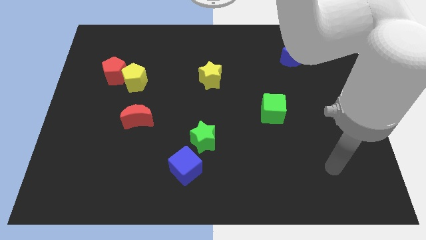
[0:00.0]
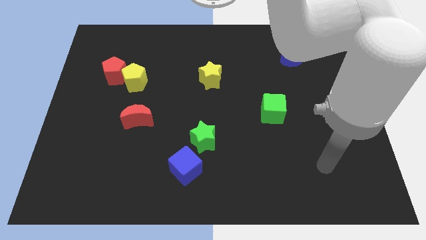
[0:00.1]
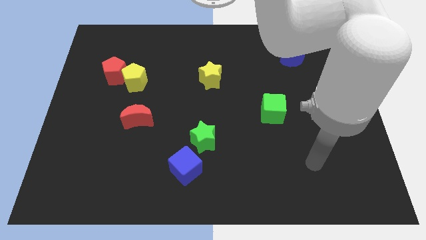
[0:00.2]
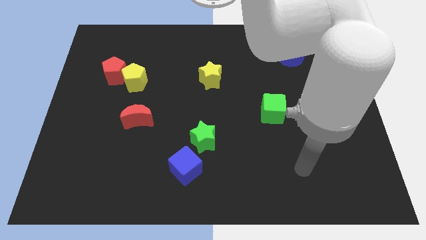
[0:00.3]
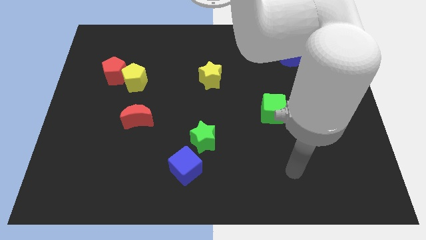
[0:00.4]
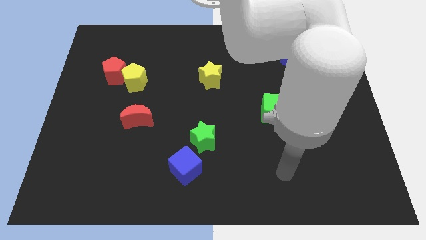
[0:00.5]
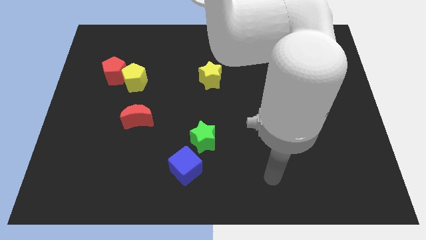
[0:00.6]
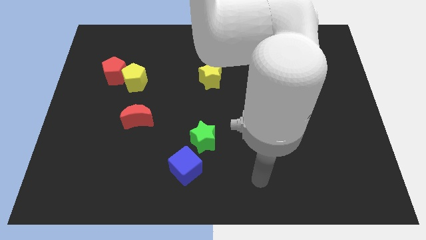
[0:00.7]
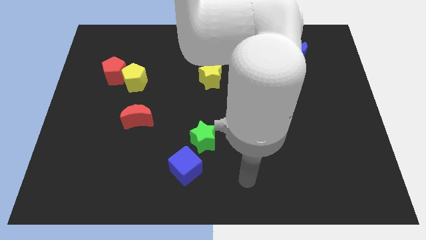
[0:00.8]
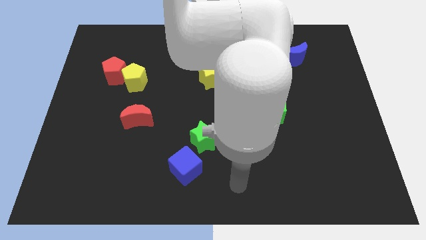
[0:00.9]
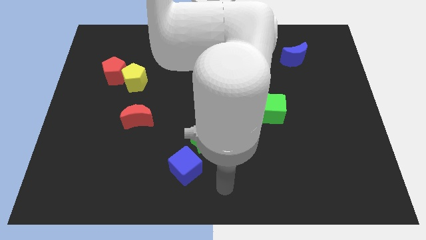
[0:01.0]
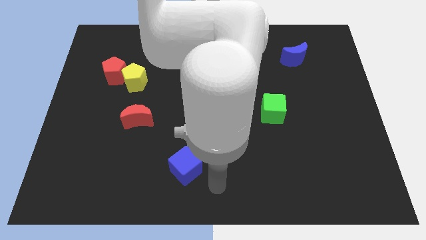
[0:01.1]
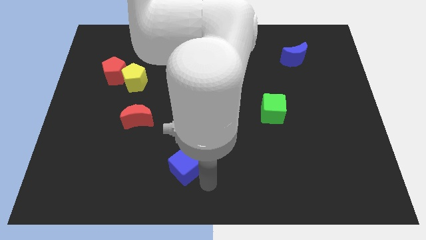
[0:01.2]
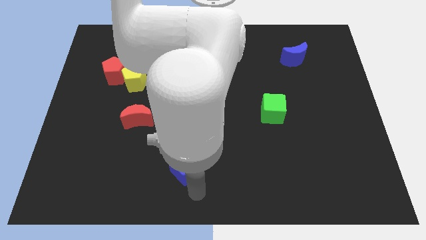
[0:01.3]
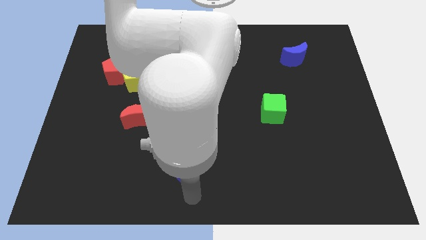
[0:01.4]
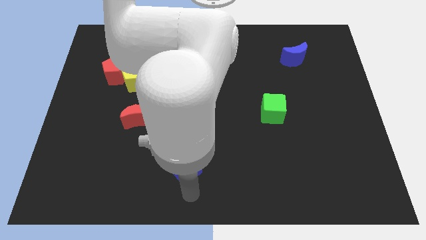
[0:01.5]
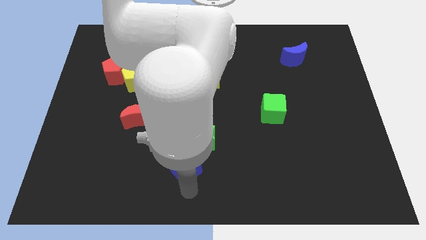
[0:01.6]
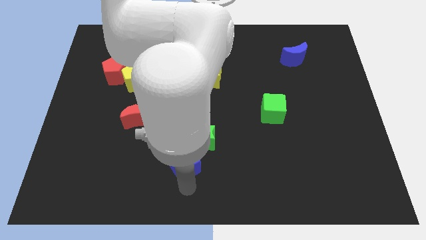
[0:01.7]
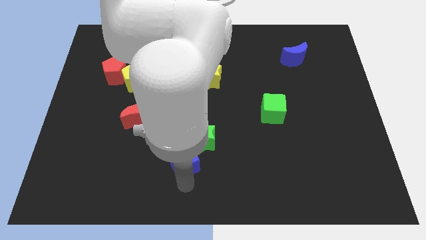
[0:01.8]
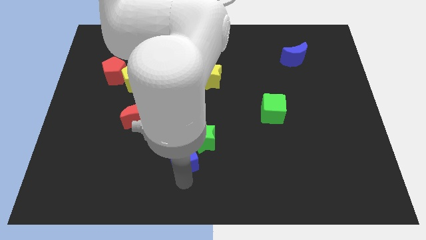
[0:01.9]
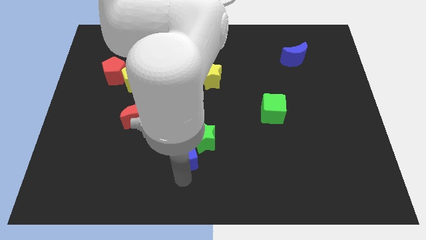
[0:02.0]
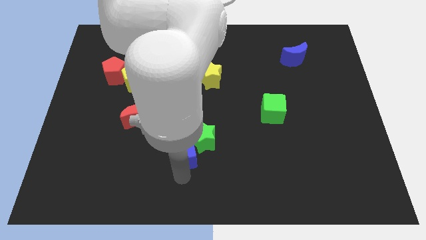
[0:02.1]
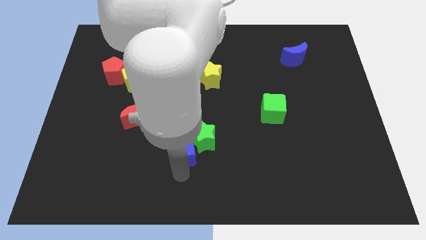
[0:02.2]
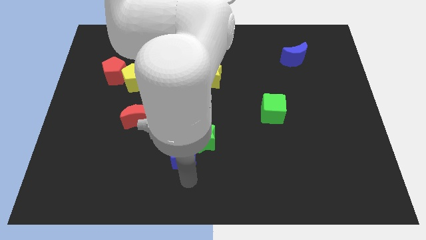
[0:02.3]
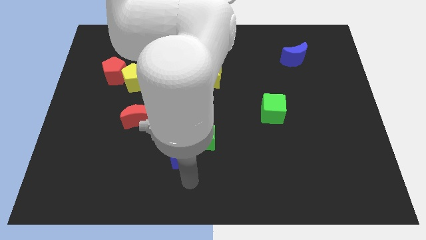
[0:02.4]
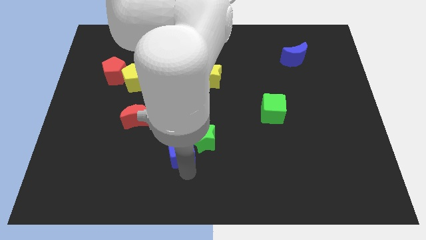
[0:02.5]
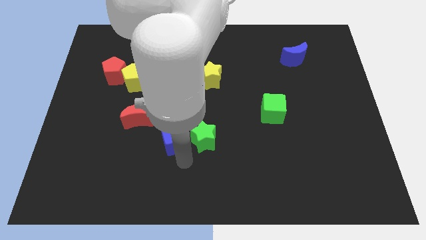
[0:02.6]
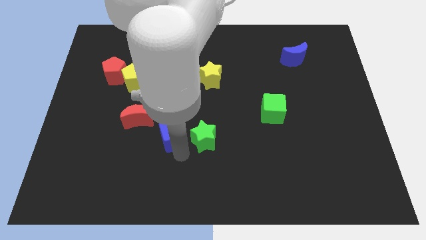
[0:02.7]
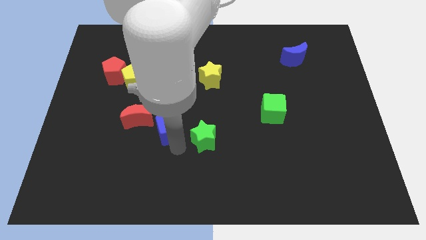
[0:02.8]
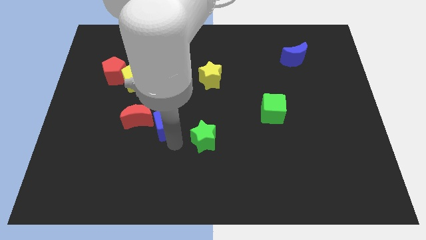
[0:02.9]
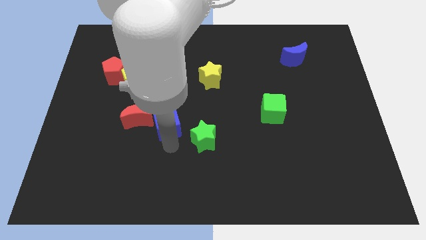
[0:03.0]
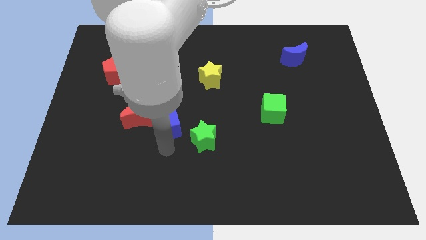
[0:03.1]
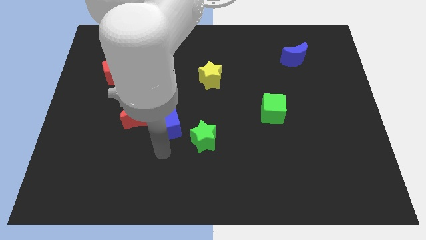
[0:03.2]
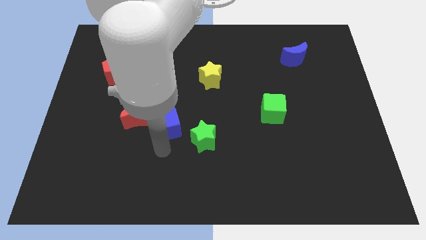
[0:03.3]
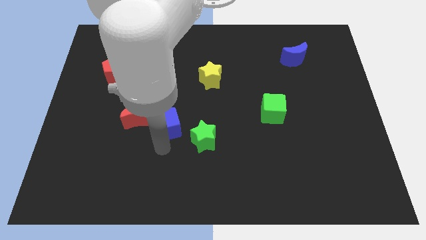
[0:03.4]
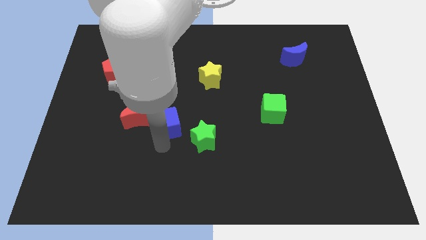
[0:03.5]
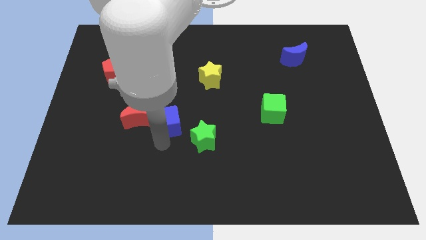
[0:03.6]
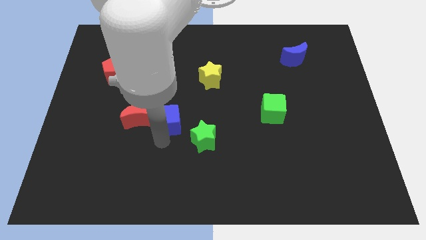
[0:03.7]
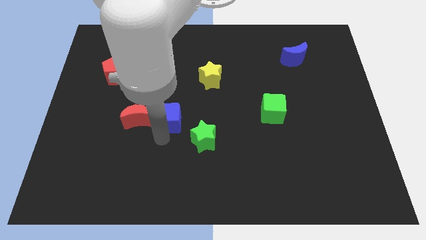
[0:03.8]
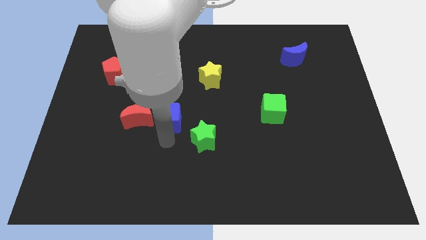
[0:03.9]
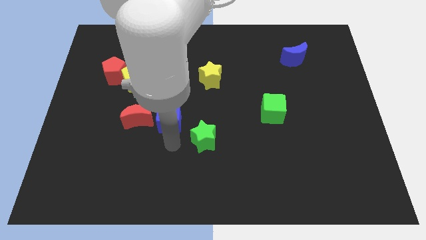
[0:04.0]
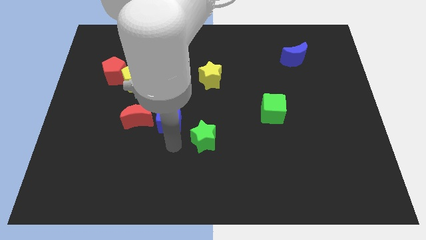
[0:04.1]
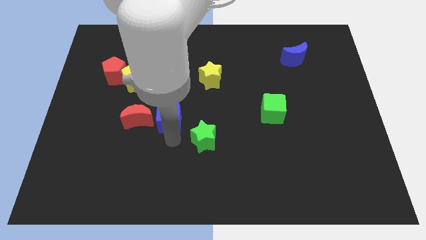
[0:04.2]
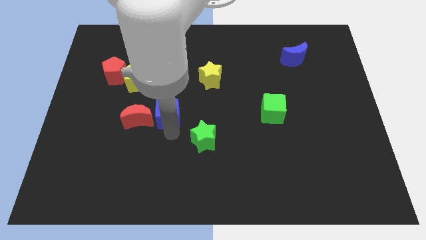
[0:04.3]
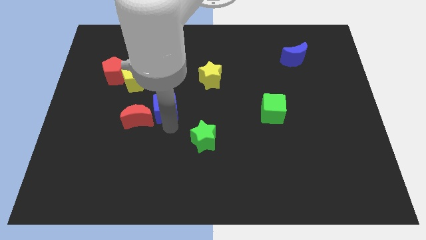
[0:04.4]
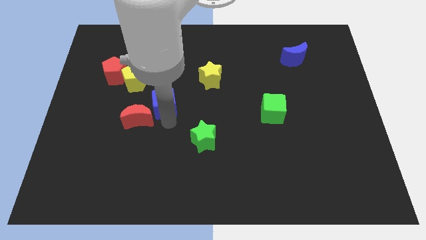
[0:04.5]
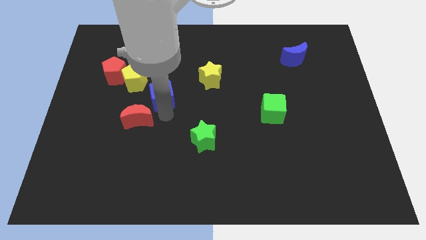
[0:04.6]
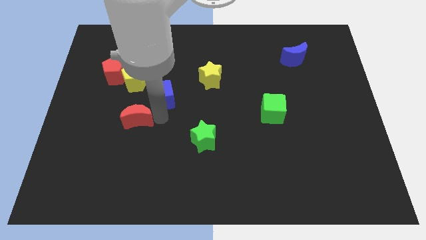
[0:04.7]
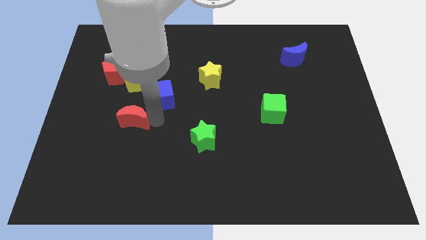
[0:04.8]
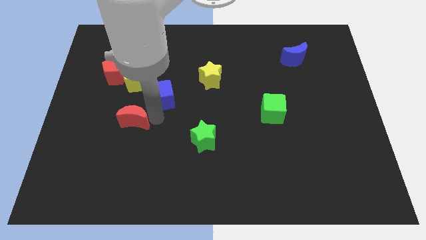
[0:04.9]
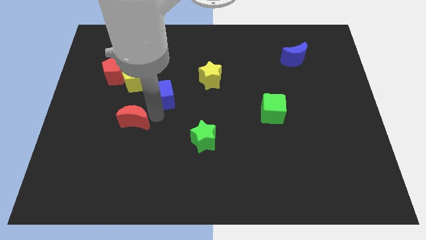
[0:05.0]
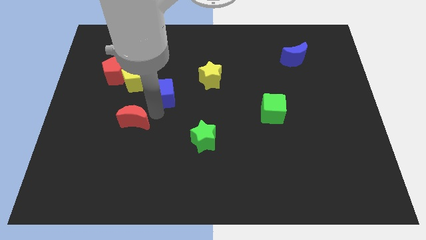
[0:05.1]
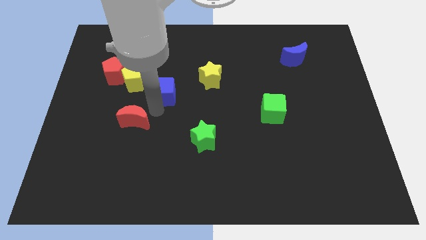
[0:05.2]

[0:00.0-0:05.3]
move the blue cube to the left of the yellow star

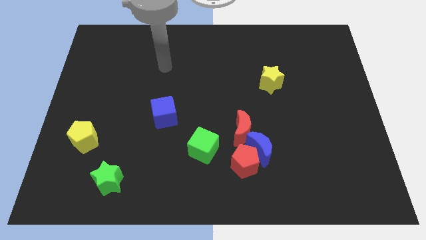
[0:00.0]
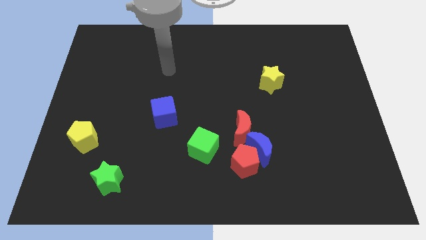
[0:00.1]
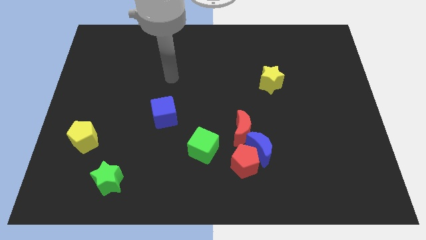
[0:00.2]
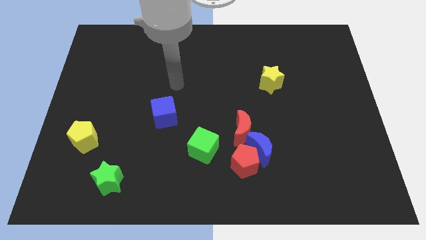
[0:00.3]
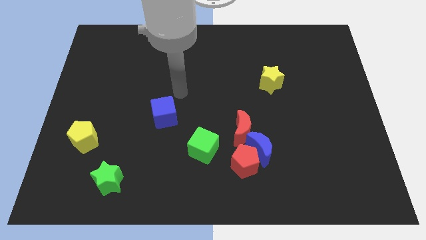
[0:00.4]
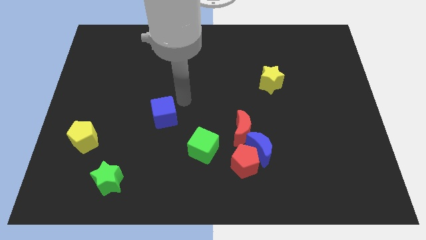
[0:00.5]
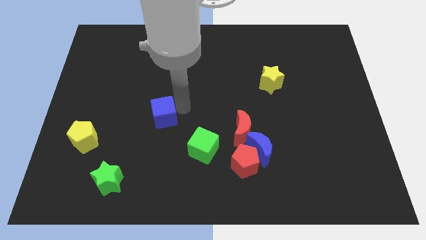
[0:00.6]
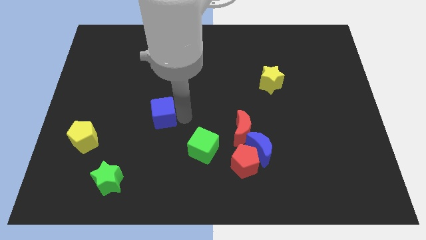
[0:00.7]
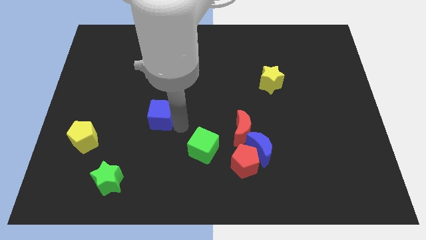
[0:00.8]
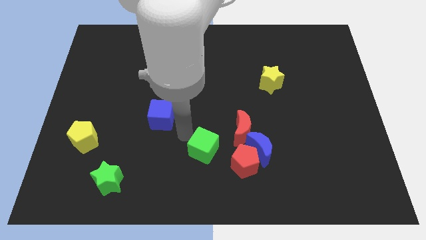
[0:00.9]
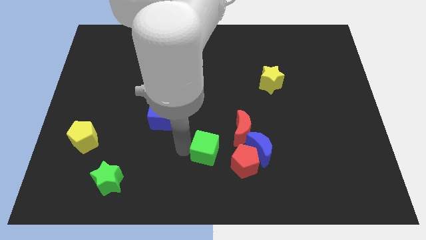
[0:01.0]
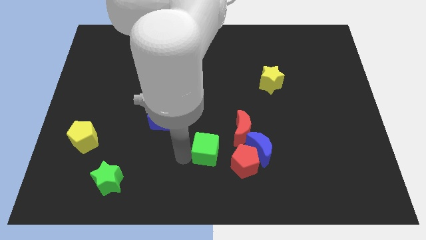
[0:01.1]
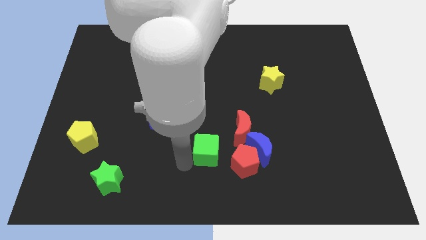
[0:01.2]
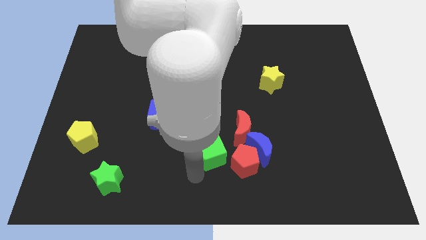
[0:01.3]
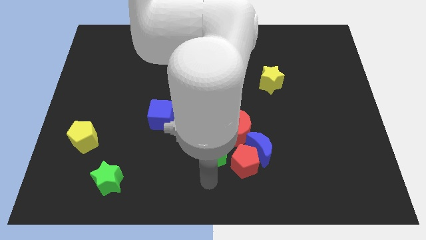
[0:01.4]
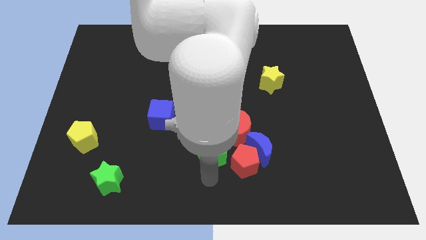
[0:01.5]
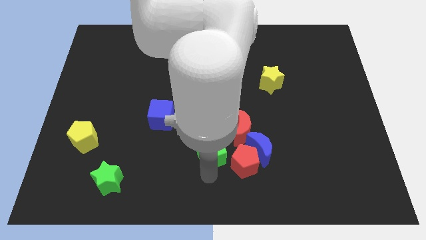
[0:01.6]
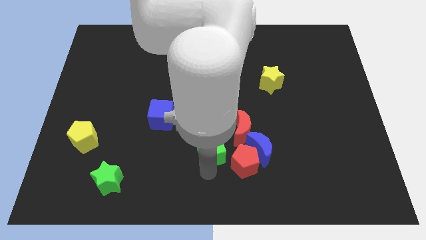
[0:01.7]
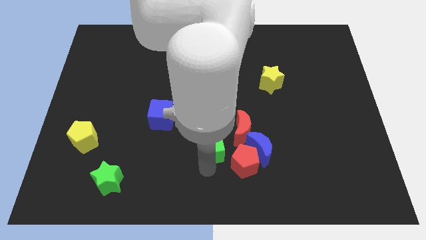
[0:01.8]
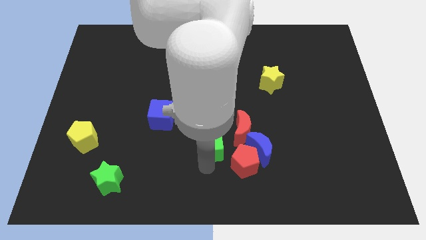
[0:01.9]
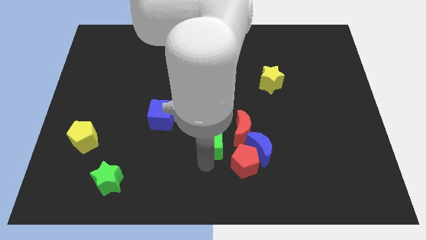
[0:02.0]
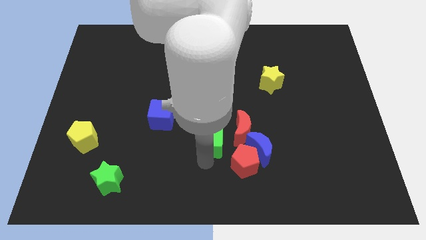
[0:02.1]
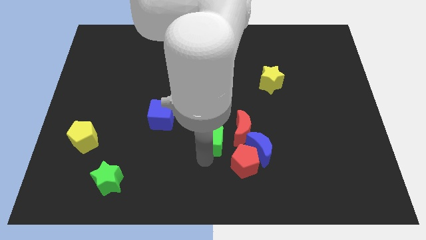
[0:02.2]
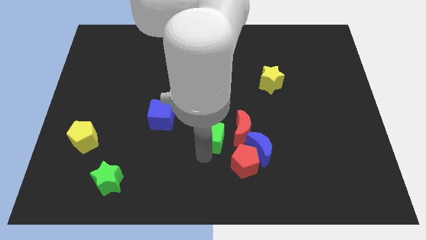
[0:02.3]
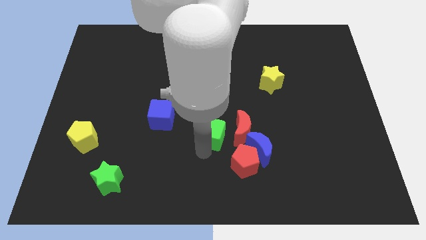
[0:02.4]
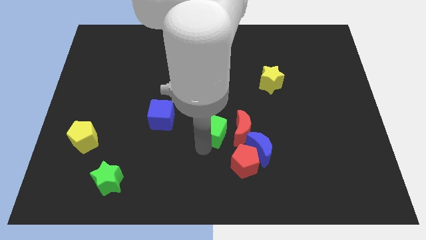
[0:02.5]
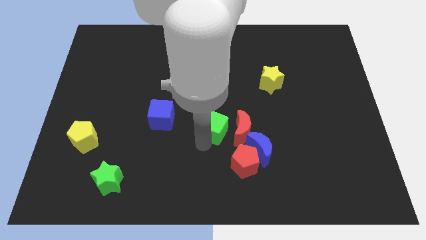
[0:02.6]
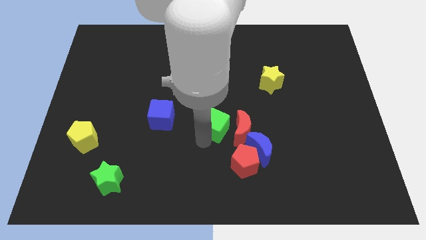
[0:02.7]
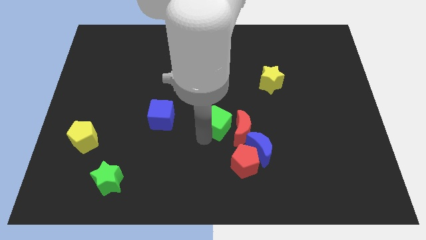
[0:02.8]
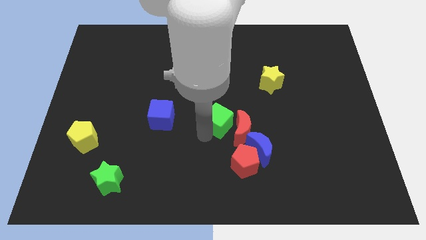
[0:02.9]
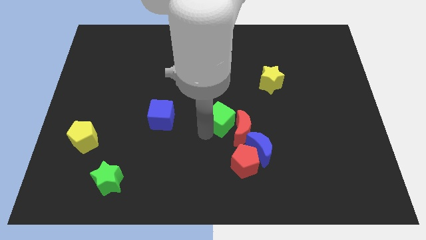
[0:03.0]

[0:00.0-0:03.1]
slide the green cube to the top side of the red pentagon

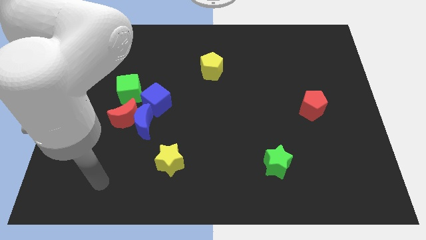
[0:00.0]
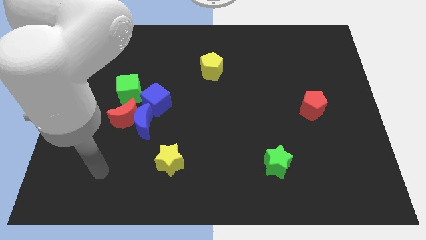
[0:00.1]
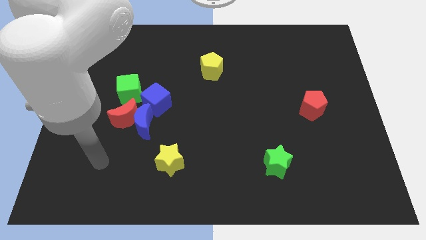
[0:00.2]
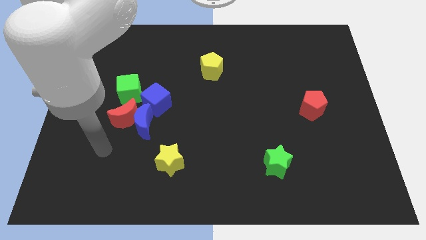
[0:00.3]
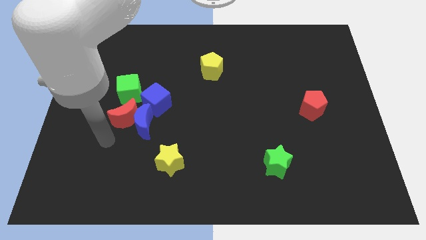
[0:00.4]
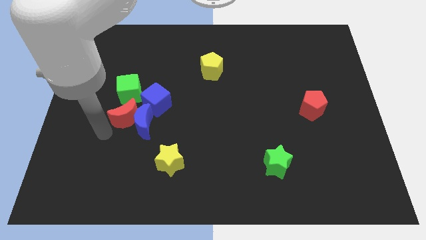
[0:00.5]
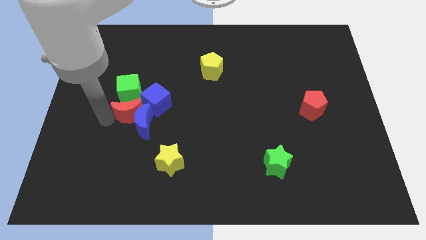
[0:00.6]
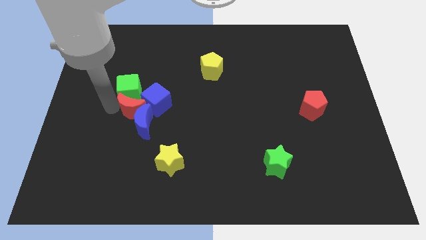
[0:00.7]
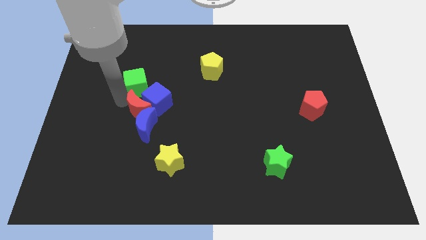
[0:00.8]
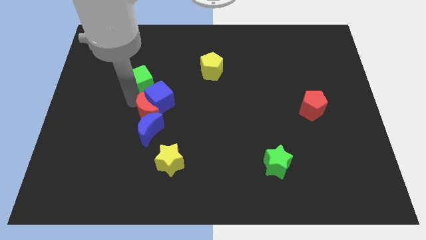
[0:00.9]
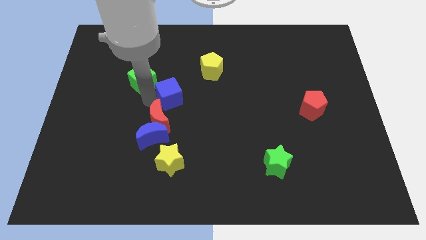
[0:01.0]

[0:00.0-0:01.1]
push the red moon above the yellow star
